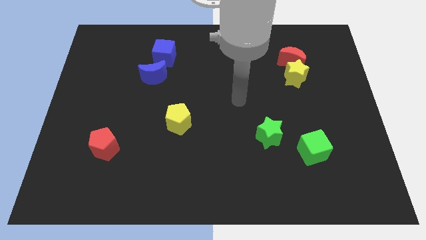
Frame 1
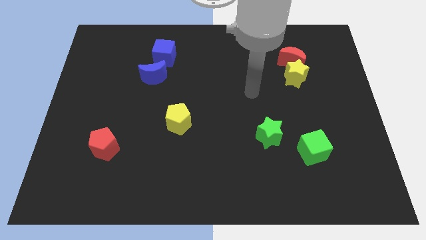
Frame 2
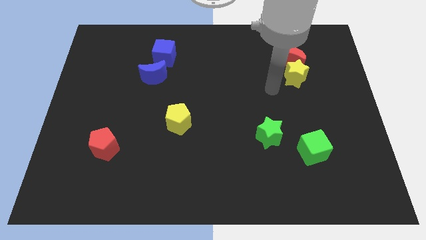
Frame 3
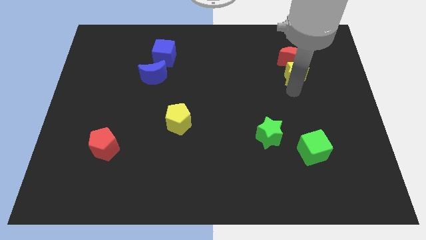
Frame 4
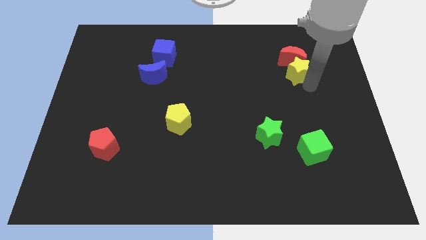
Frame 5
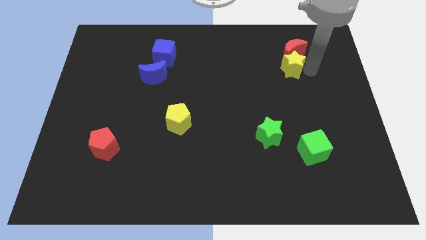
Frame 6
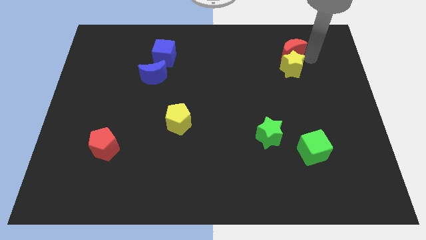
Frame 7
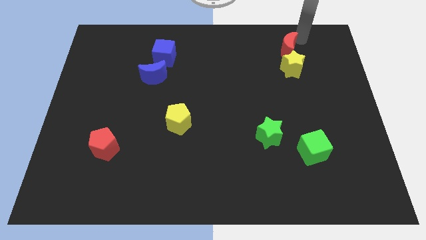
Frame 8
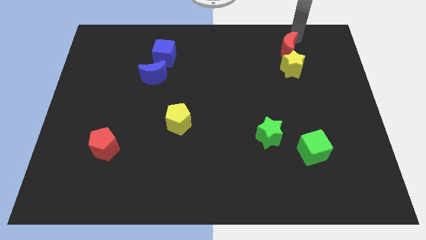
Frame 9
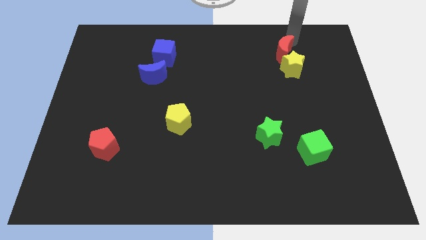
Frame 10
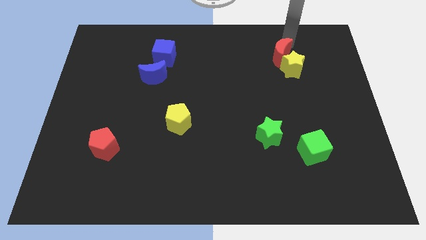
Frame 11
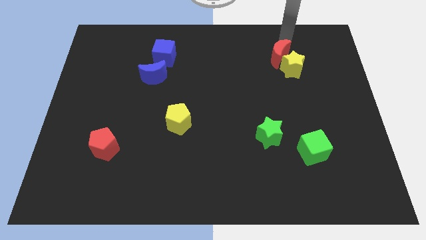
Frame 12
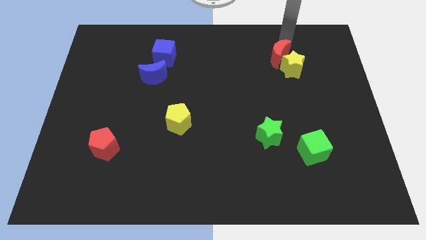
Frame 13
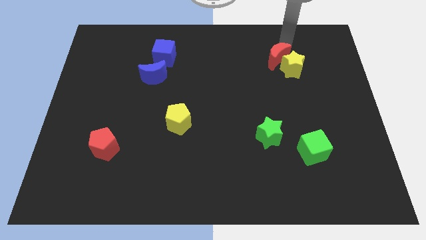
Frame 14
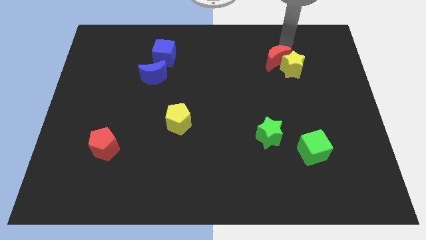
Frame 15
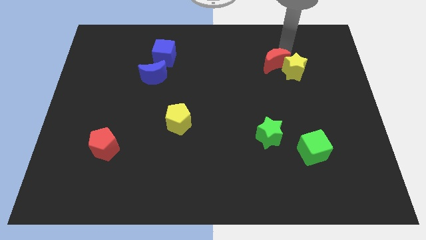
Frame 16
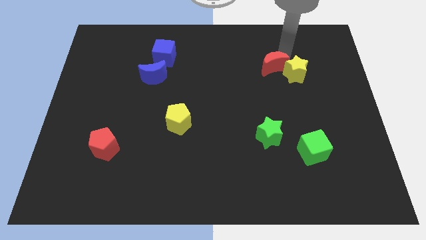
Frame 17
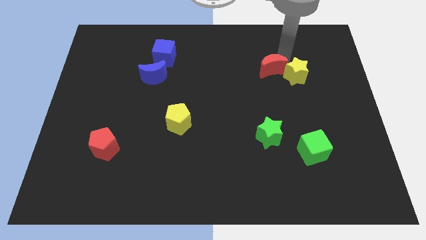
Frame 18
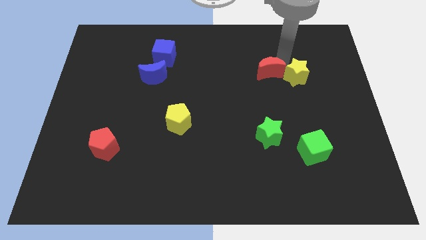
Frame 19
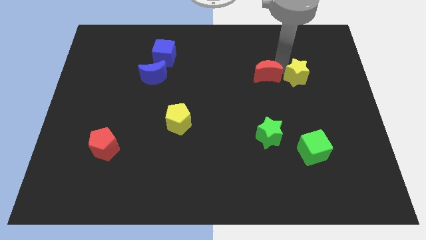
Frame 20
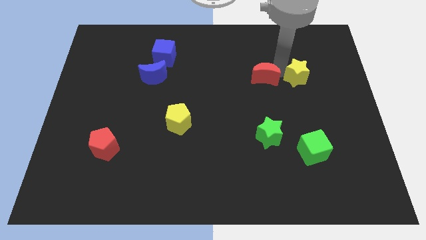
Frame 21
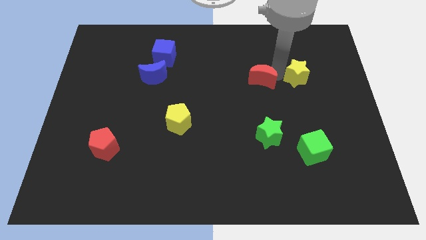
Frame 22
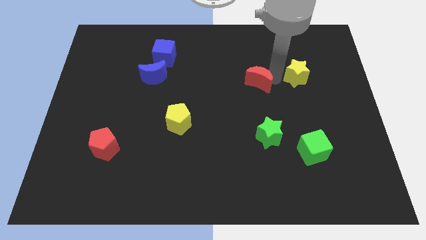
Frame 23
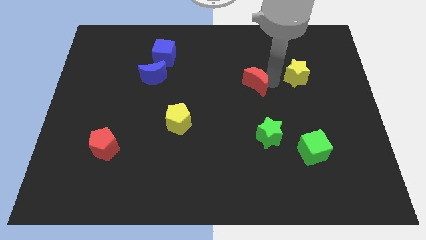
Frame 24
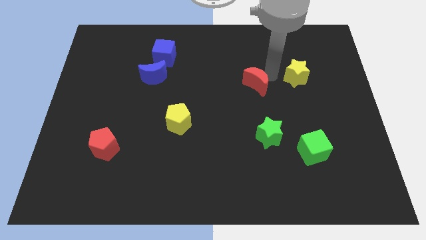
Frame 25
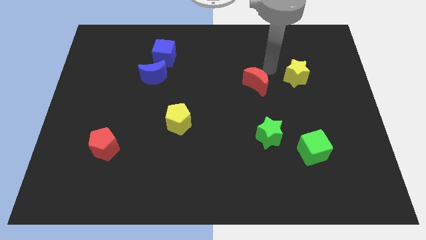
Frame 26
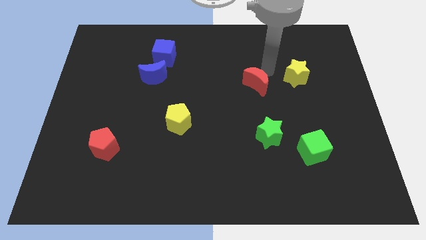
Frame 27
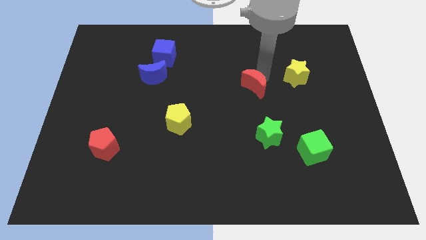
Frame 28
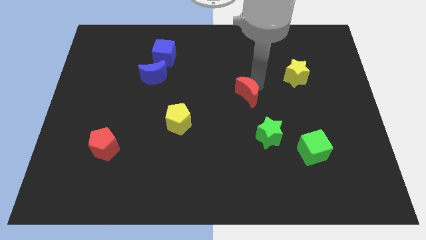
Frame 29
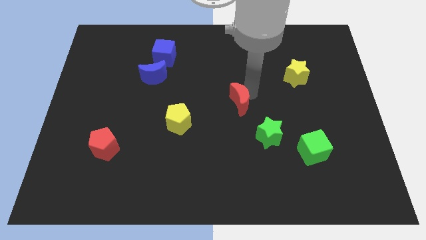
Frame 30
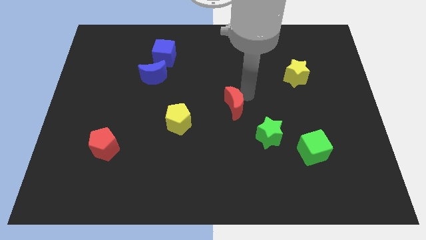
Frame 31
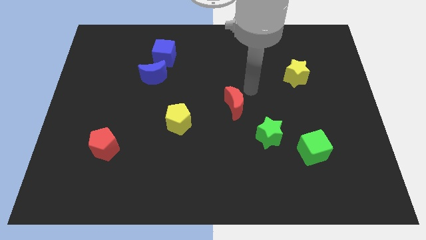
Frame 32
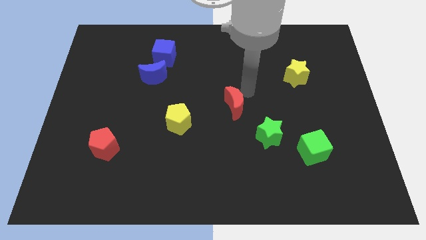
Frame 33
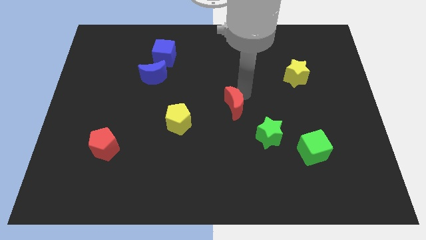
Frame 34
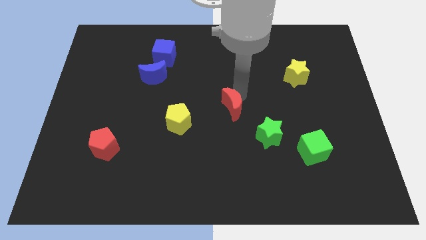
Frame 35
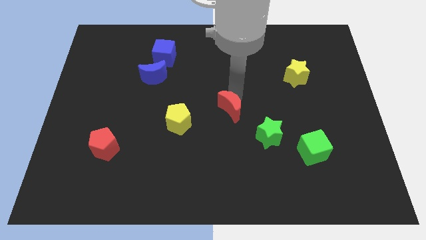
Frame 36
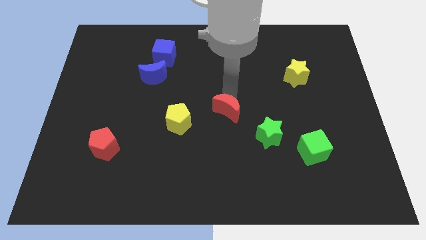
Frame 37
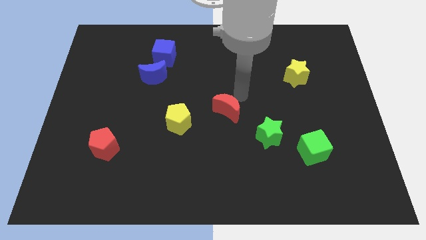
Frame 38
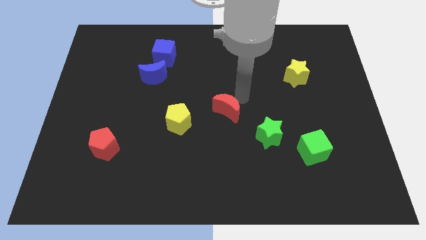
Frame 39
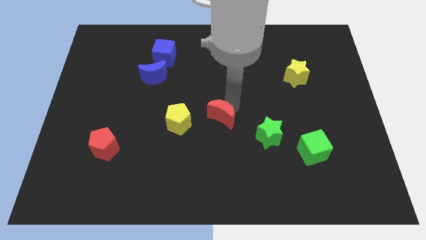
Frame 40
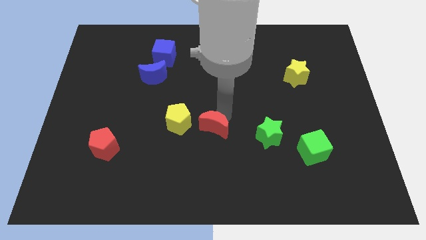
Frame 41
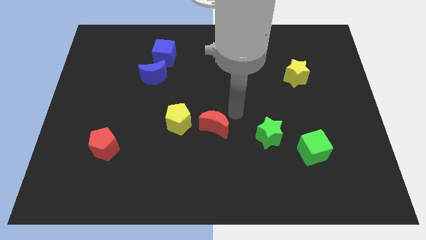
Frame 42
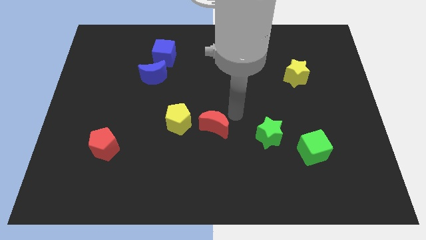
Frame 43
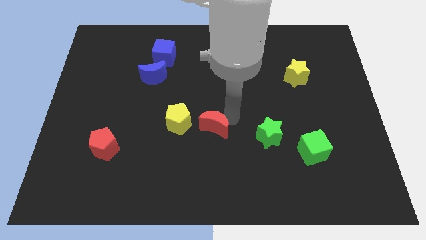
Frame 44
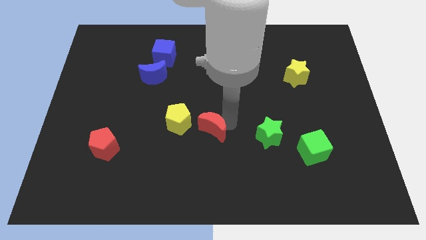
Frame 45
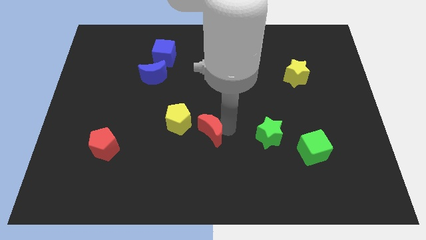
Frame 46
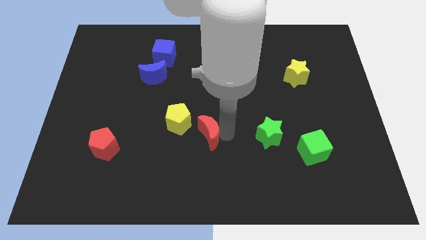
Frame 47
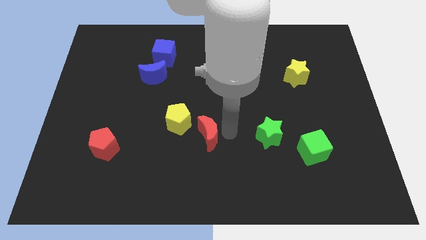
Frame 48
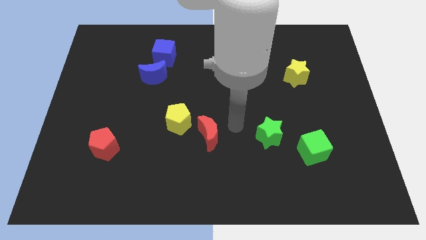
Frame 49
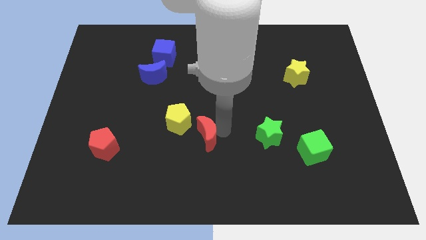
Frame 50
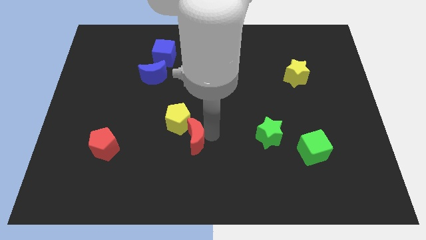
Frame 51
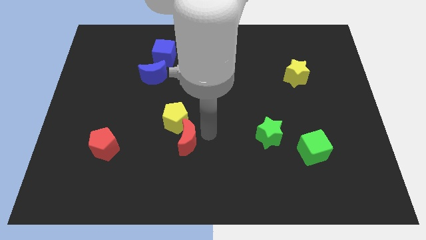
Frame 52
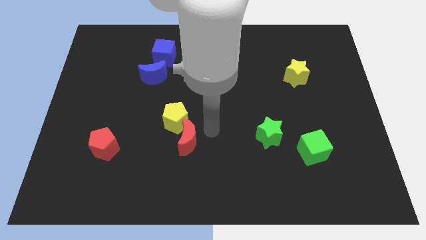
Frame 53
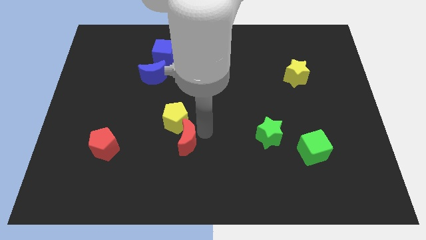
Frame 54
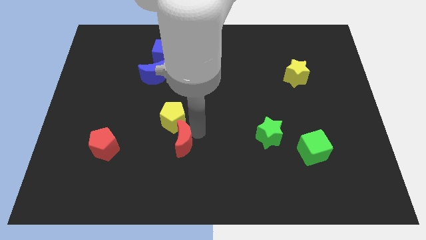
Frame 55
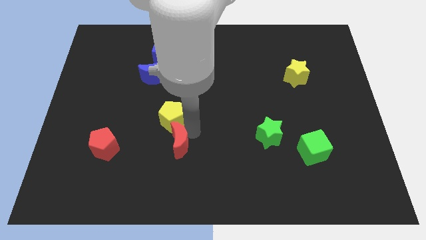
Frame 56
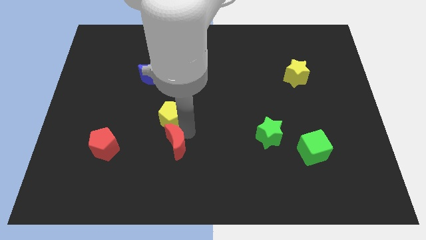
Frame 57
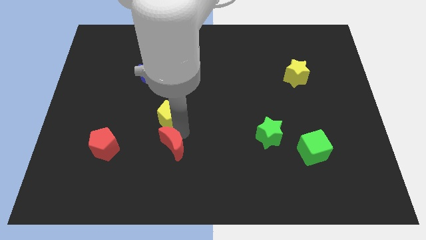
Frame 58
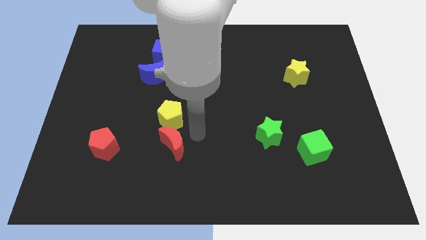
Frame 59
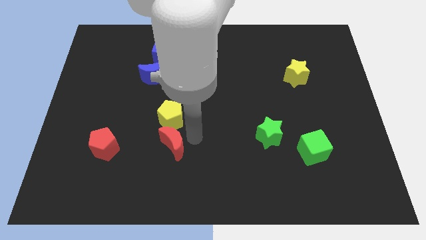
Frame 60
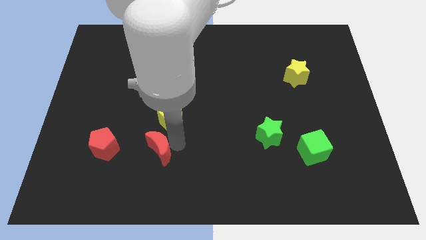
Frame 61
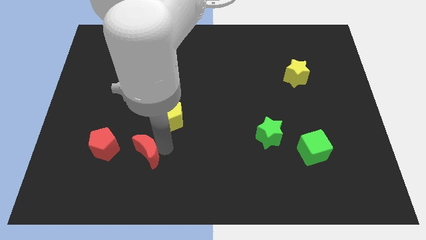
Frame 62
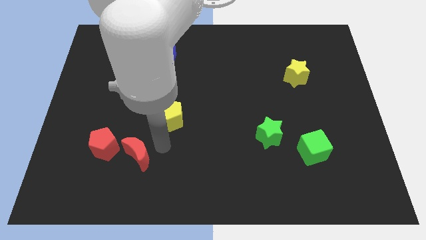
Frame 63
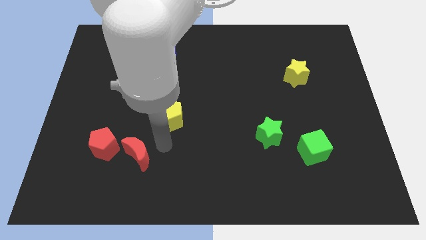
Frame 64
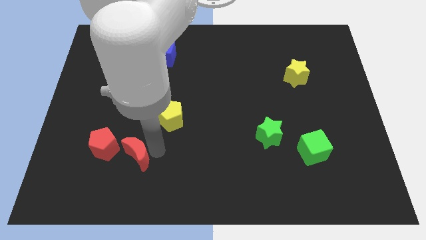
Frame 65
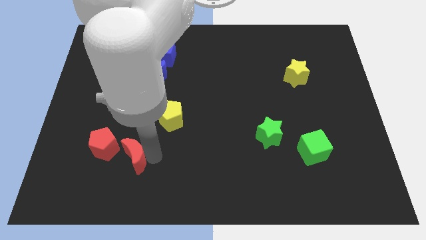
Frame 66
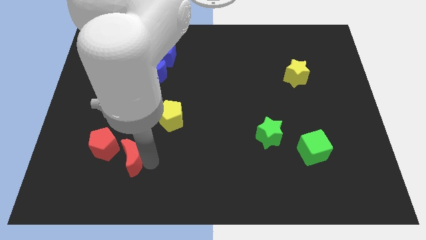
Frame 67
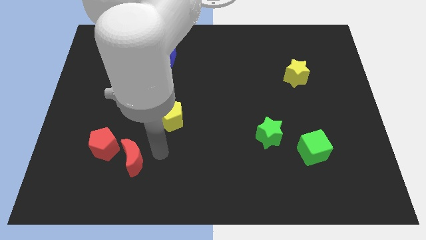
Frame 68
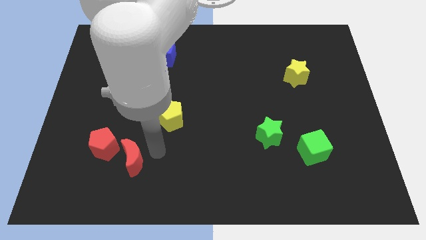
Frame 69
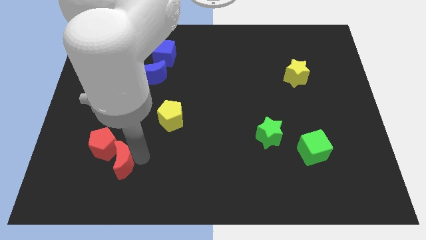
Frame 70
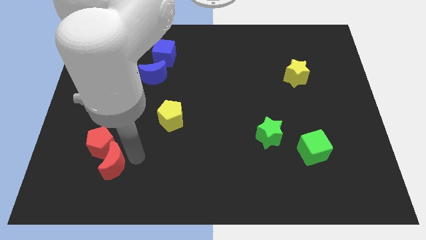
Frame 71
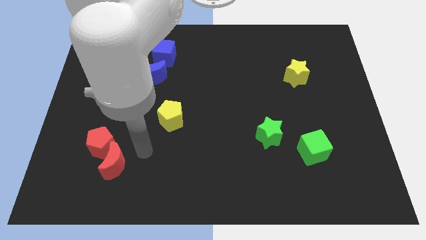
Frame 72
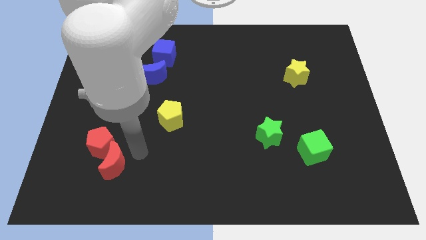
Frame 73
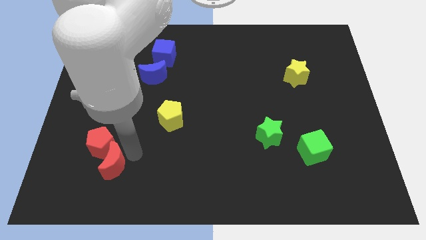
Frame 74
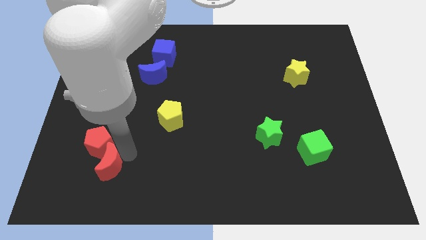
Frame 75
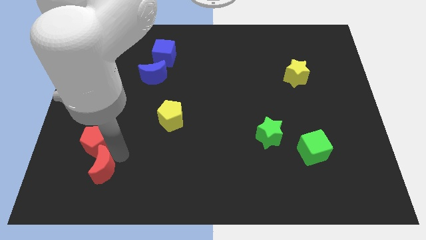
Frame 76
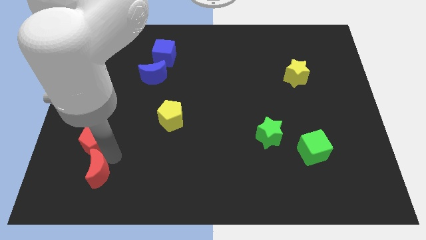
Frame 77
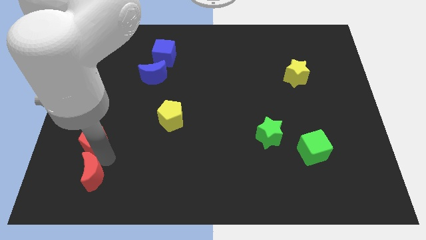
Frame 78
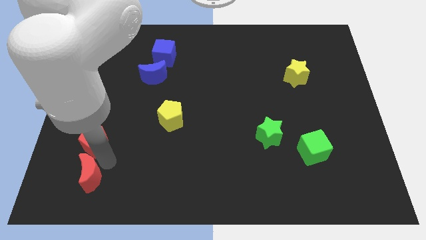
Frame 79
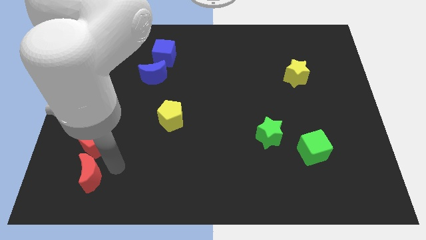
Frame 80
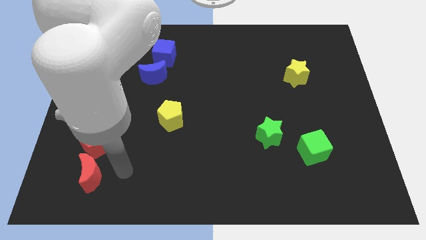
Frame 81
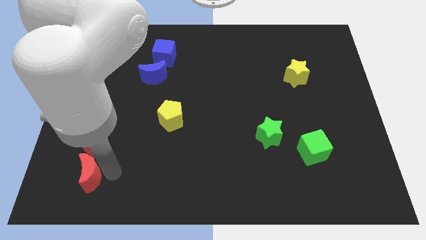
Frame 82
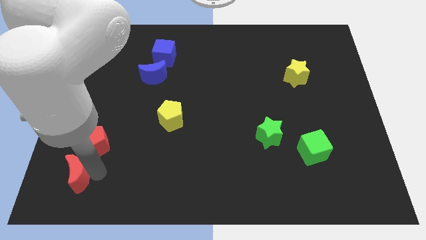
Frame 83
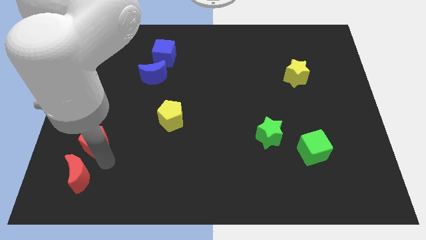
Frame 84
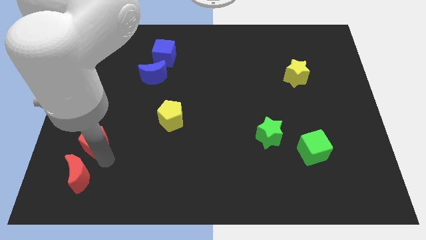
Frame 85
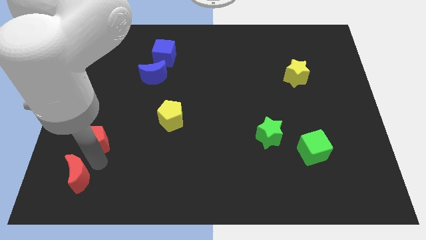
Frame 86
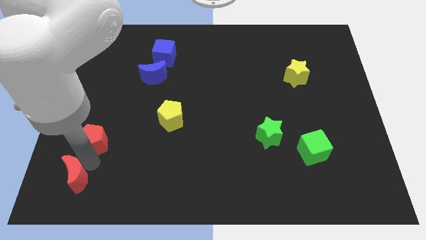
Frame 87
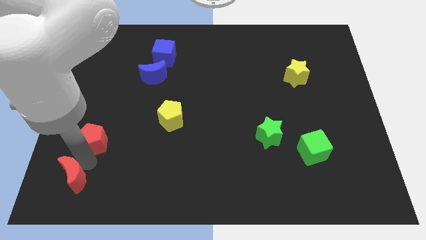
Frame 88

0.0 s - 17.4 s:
slide the red moon to the bottom left
